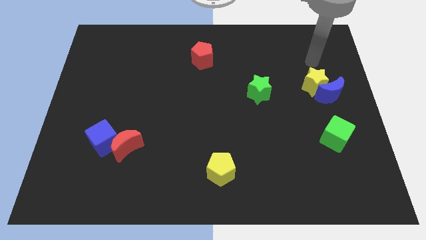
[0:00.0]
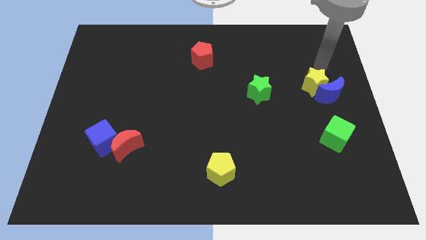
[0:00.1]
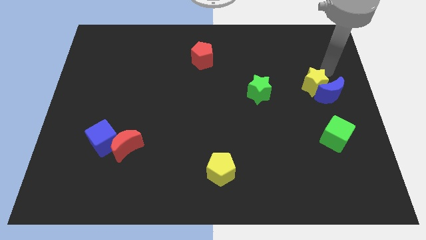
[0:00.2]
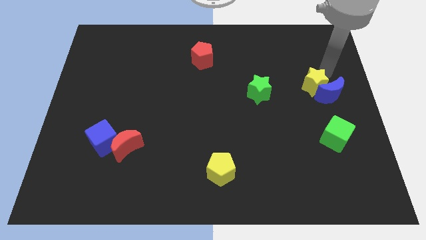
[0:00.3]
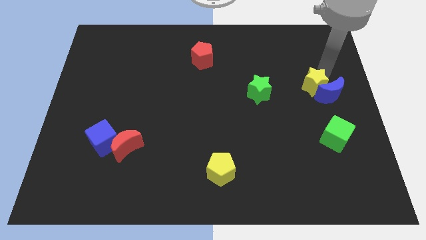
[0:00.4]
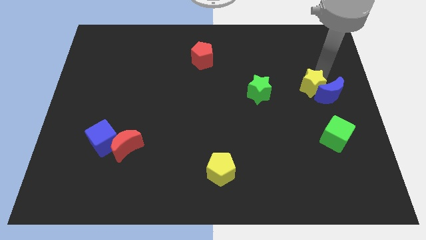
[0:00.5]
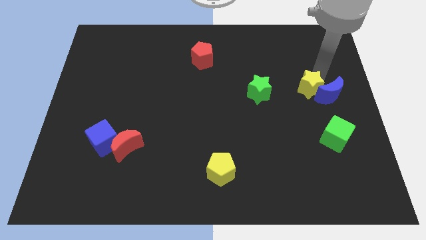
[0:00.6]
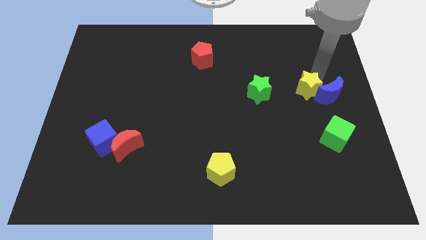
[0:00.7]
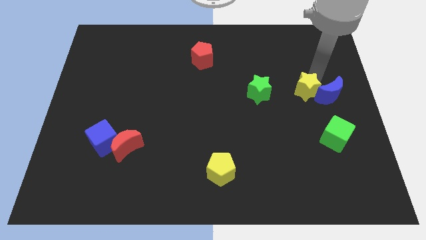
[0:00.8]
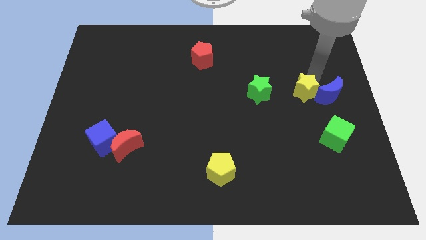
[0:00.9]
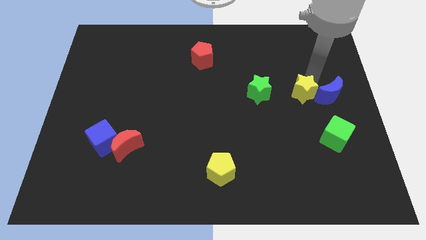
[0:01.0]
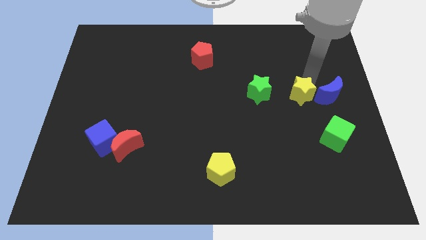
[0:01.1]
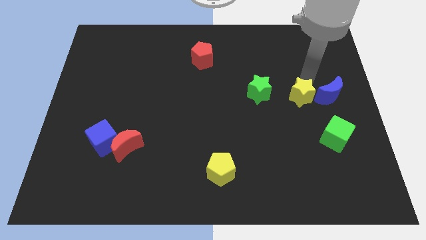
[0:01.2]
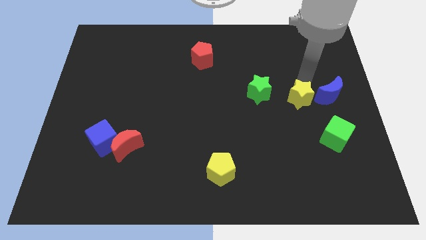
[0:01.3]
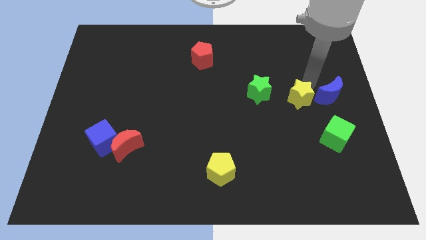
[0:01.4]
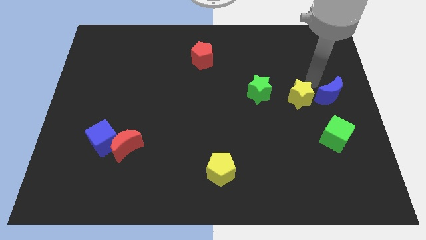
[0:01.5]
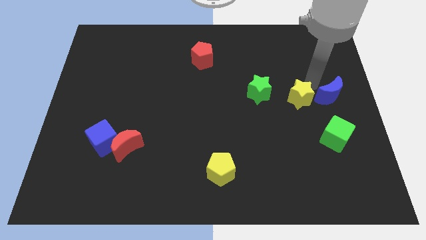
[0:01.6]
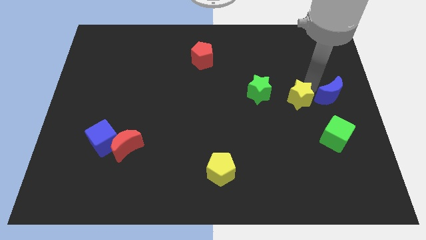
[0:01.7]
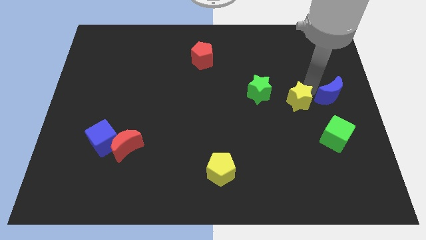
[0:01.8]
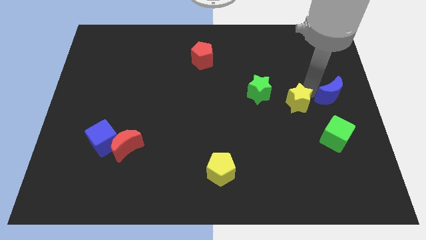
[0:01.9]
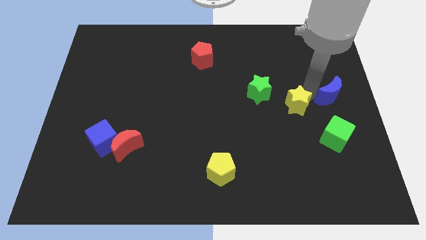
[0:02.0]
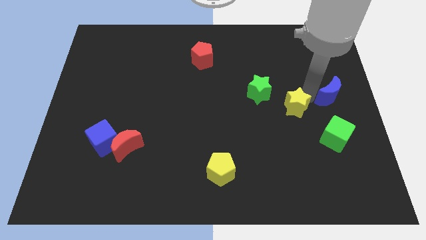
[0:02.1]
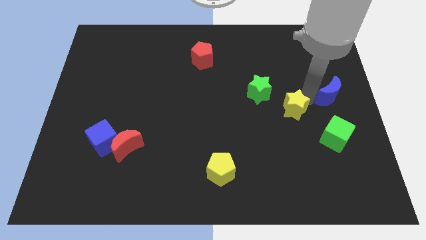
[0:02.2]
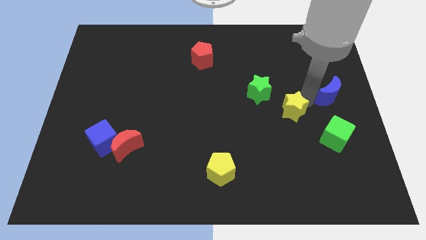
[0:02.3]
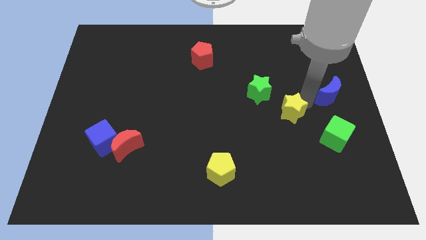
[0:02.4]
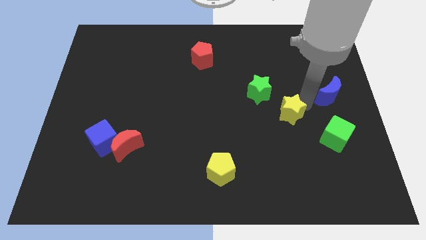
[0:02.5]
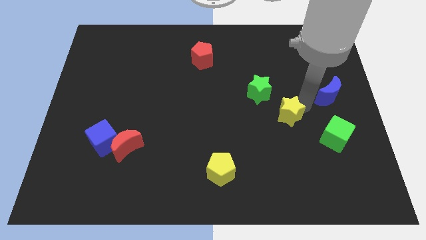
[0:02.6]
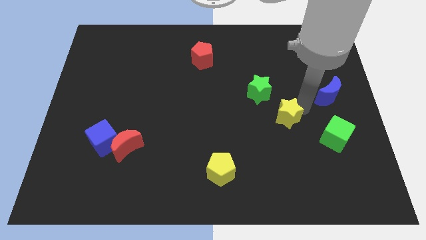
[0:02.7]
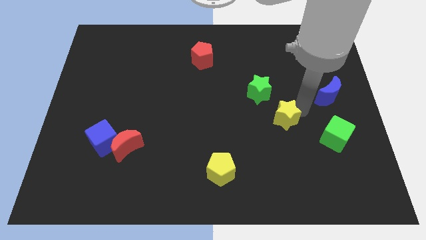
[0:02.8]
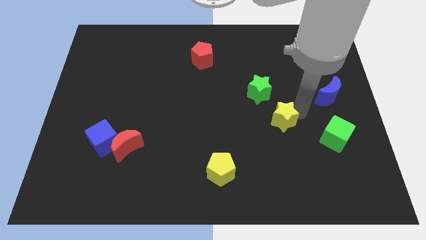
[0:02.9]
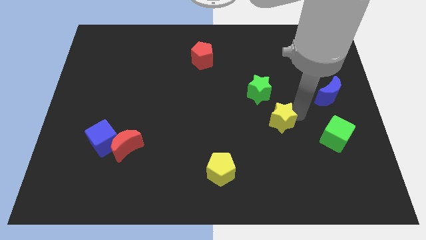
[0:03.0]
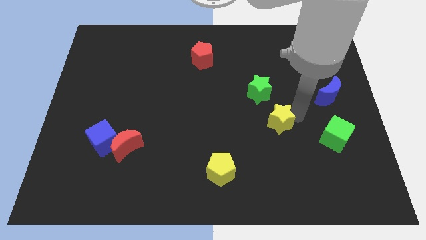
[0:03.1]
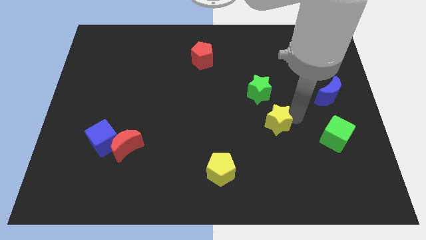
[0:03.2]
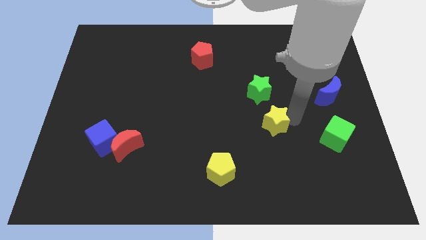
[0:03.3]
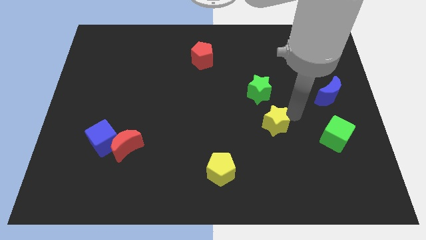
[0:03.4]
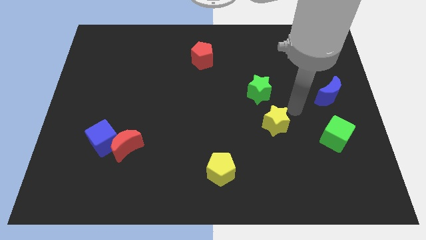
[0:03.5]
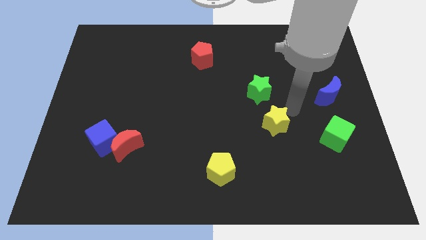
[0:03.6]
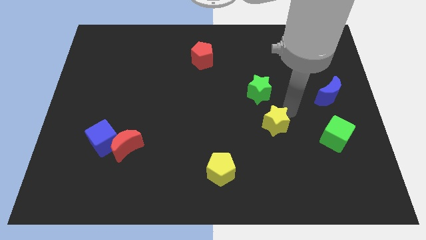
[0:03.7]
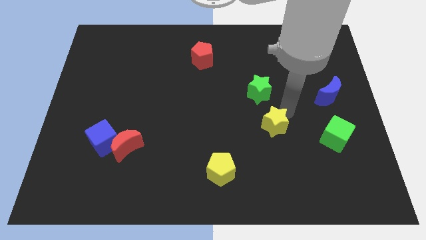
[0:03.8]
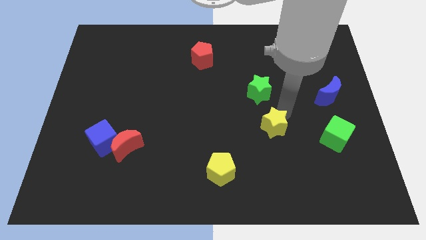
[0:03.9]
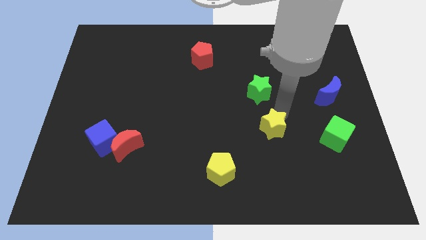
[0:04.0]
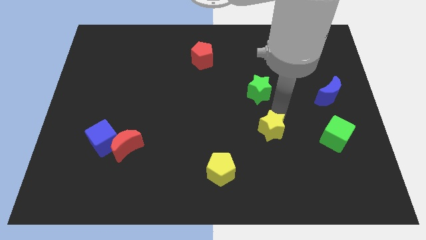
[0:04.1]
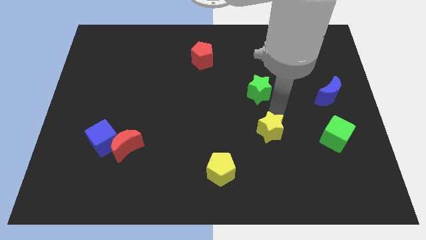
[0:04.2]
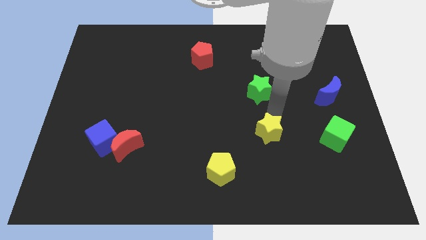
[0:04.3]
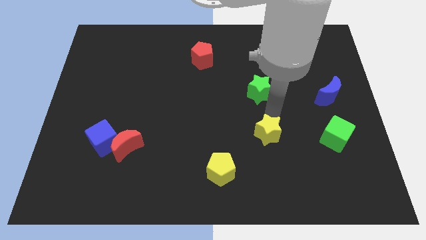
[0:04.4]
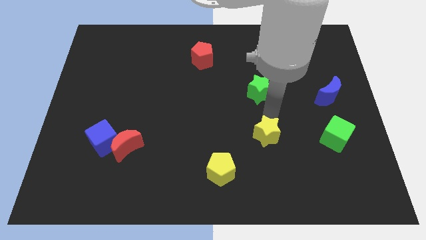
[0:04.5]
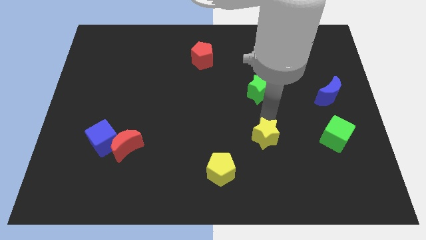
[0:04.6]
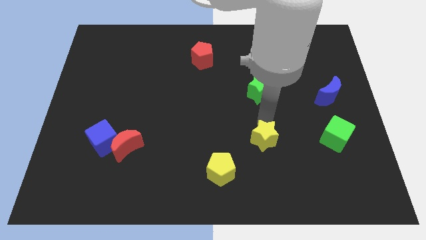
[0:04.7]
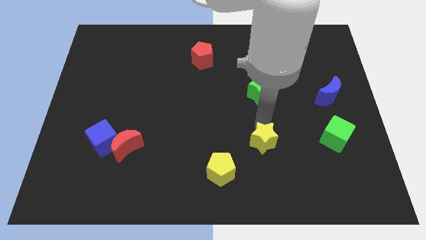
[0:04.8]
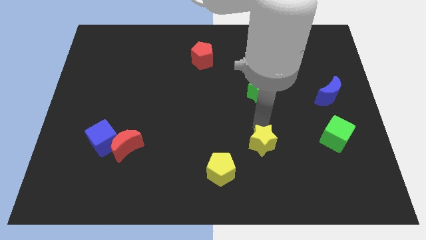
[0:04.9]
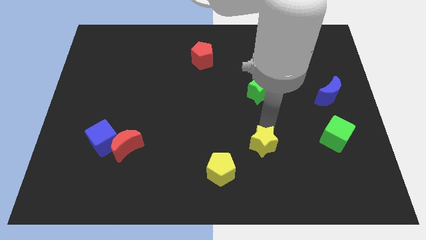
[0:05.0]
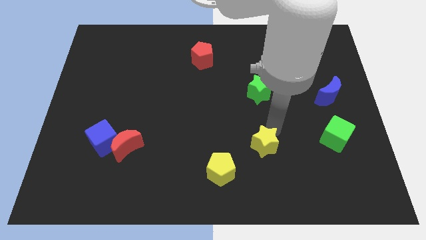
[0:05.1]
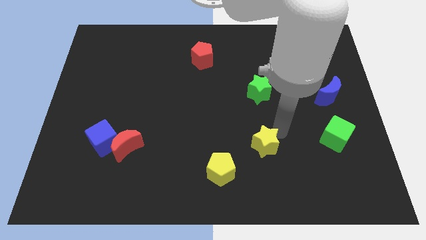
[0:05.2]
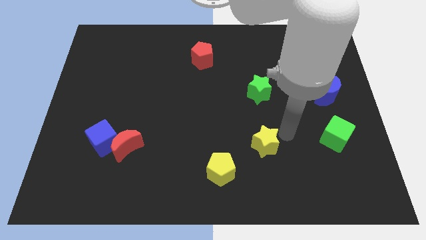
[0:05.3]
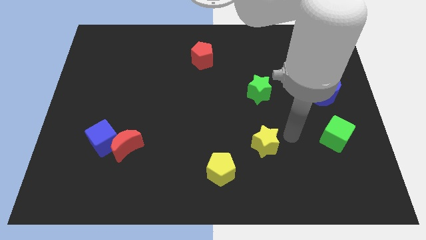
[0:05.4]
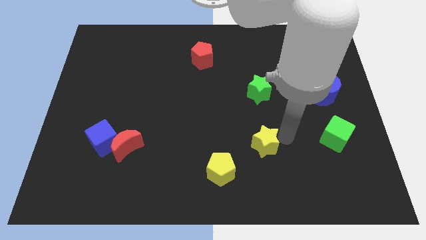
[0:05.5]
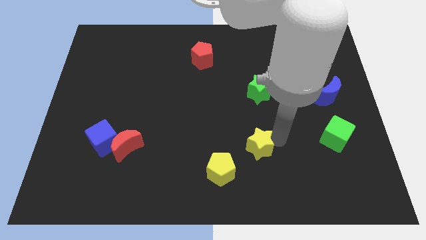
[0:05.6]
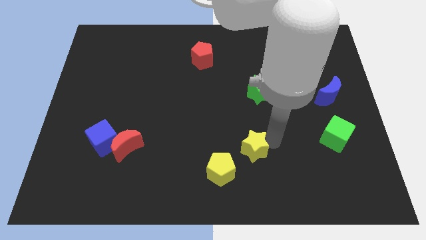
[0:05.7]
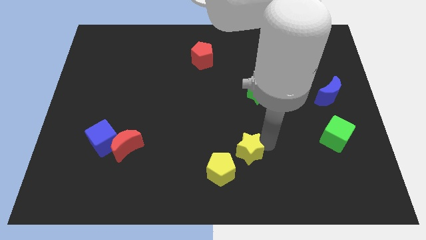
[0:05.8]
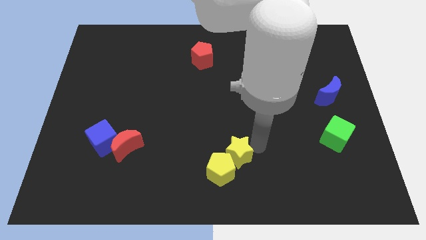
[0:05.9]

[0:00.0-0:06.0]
slide the yellow star towards the yellow pentagon

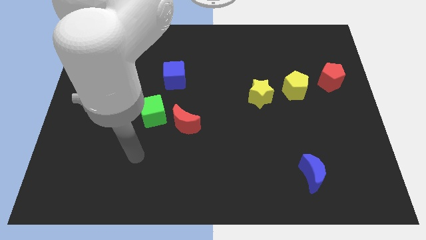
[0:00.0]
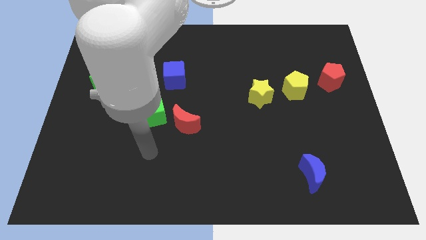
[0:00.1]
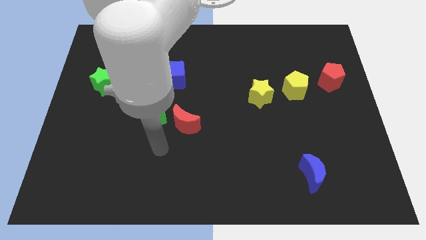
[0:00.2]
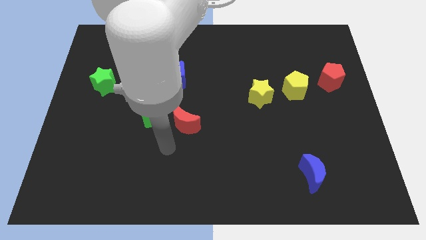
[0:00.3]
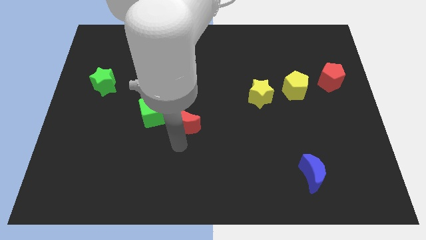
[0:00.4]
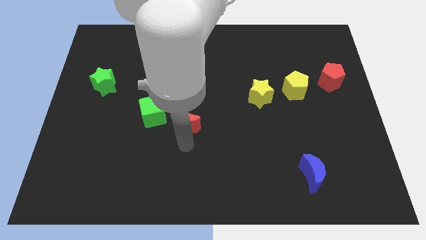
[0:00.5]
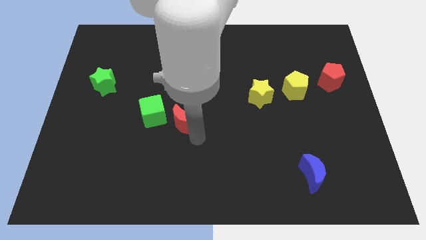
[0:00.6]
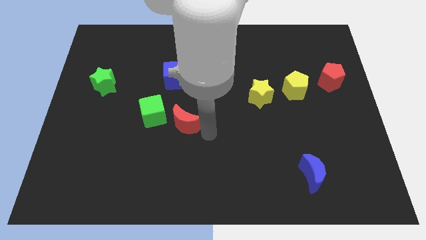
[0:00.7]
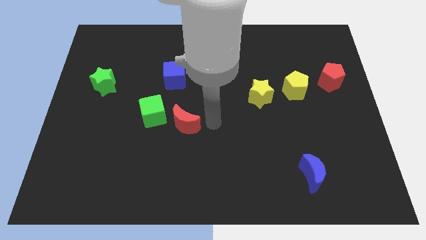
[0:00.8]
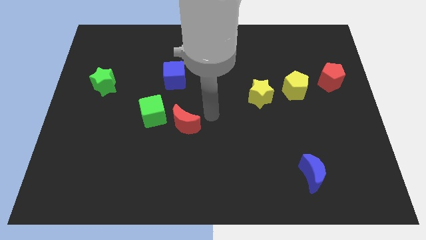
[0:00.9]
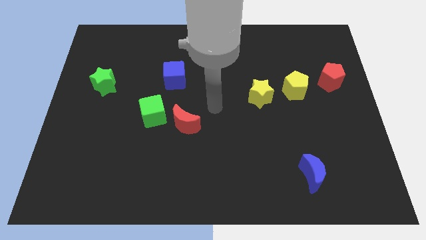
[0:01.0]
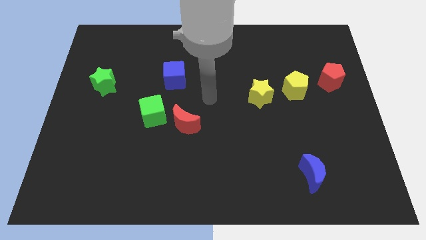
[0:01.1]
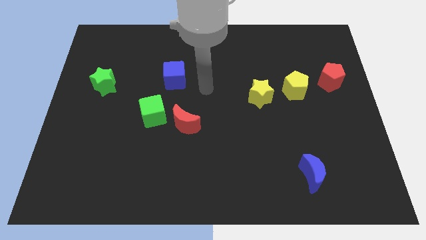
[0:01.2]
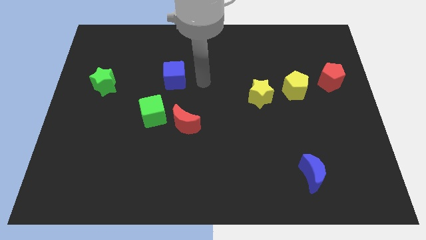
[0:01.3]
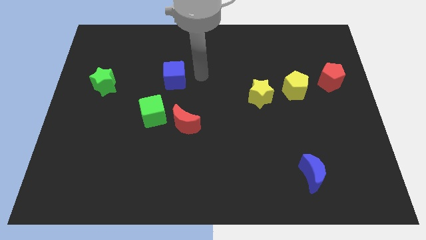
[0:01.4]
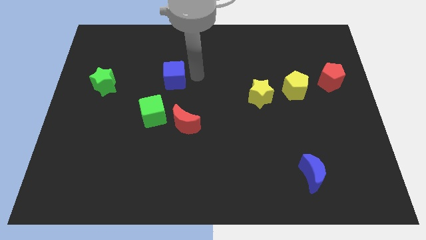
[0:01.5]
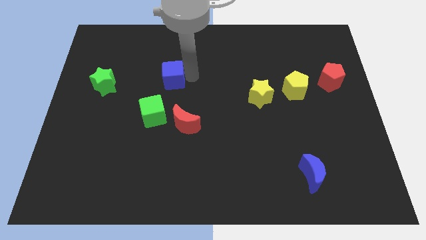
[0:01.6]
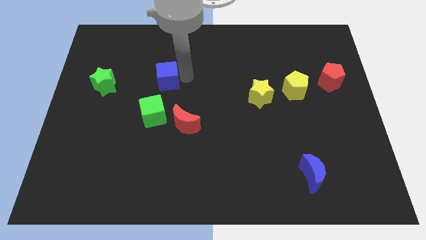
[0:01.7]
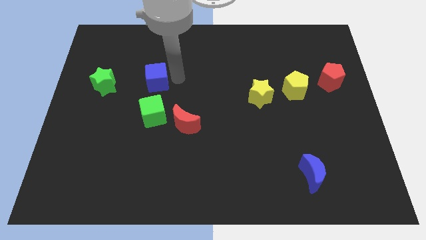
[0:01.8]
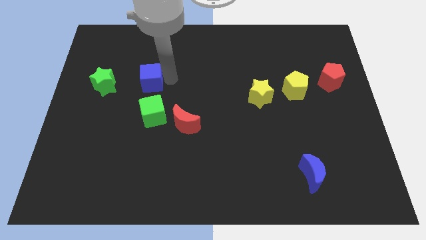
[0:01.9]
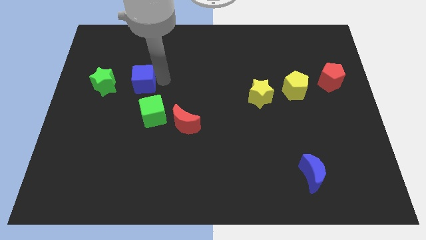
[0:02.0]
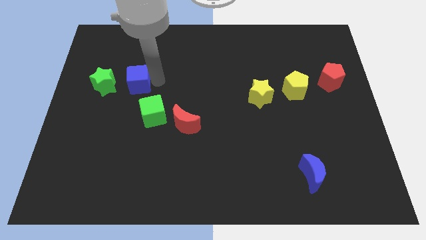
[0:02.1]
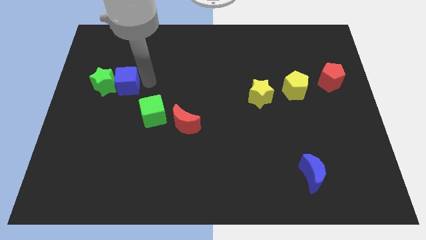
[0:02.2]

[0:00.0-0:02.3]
move the blue cube close to the green star
